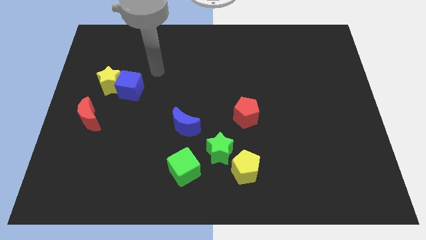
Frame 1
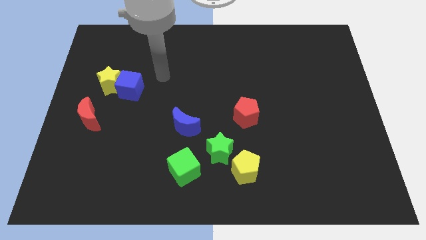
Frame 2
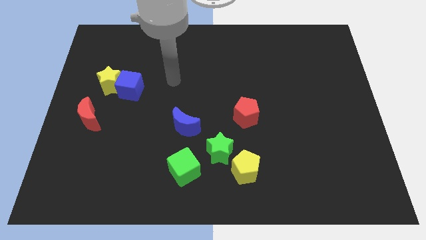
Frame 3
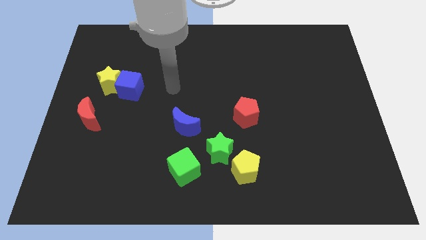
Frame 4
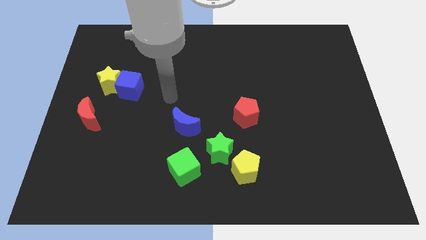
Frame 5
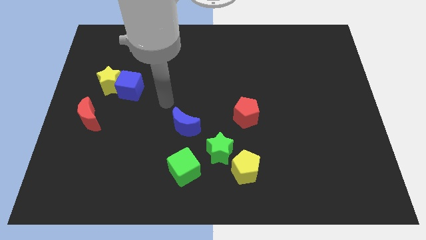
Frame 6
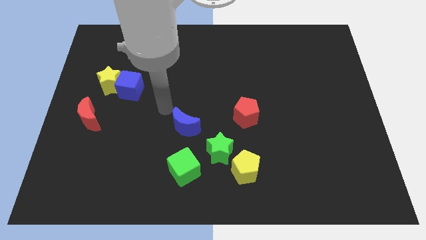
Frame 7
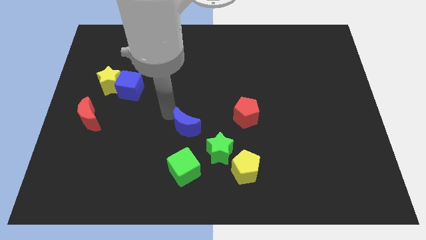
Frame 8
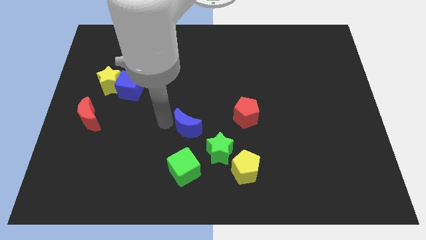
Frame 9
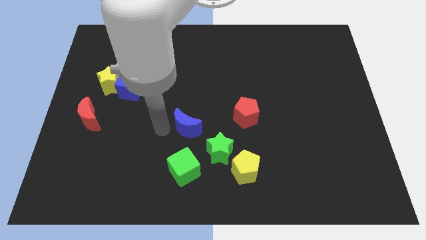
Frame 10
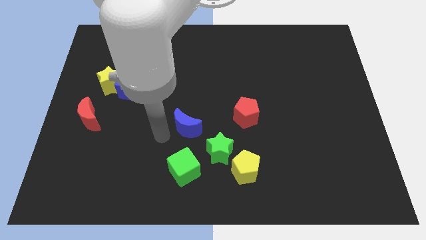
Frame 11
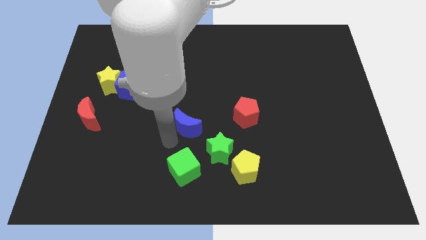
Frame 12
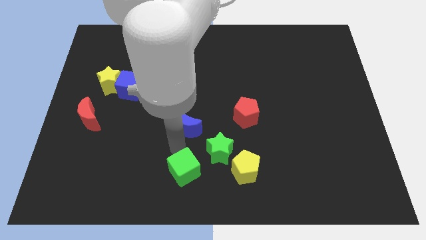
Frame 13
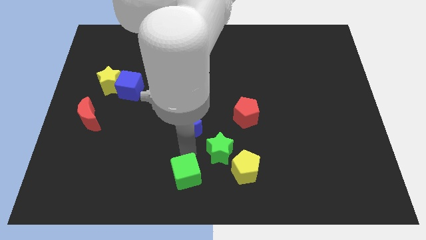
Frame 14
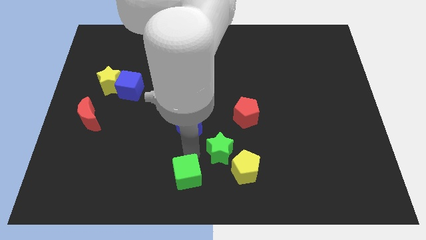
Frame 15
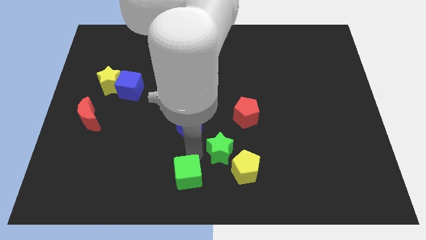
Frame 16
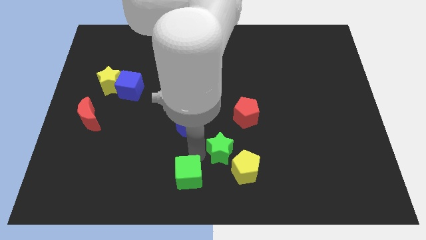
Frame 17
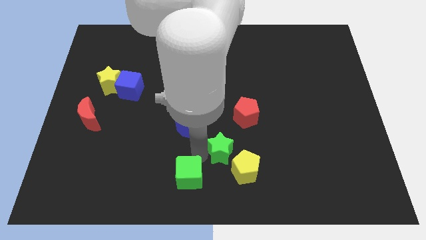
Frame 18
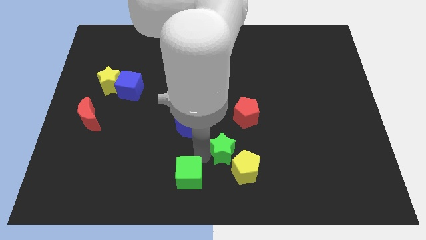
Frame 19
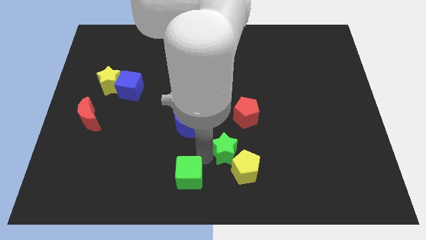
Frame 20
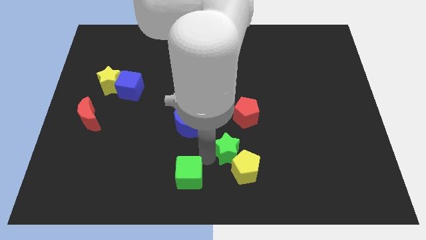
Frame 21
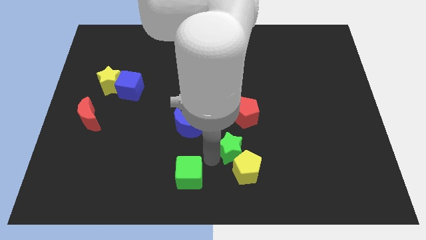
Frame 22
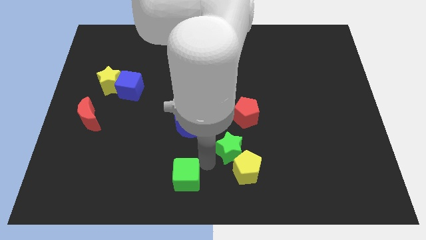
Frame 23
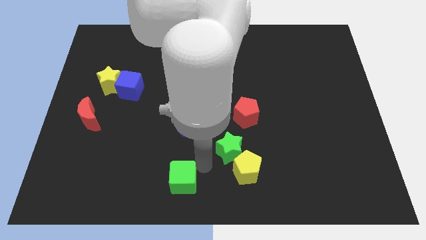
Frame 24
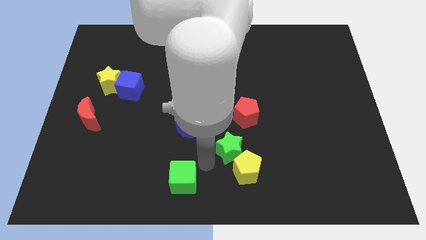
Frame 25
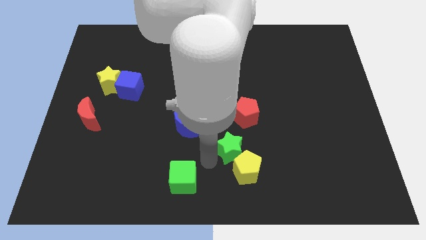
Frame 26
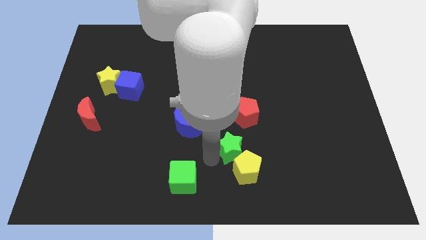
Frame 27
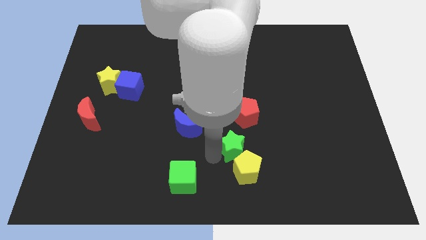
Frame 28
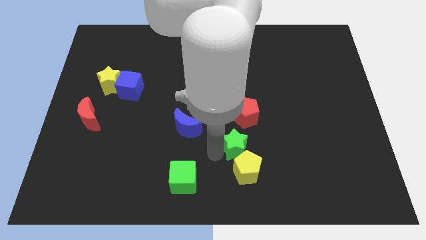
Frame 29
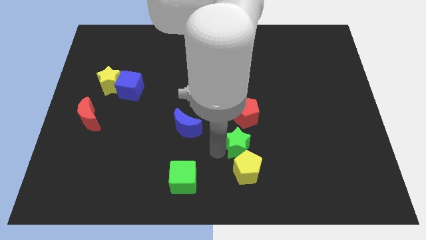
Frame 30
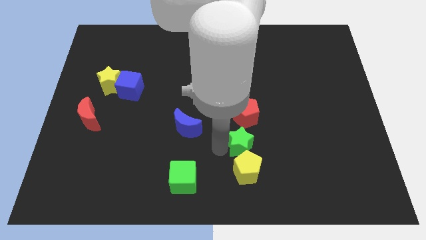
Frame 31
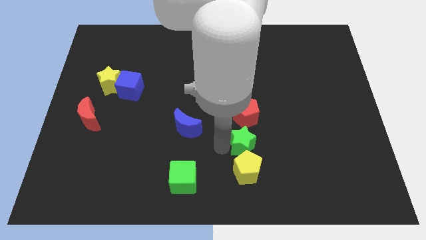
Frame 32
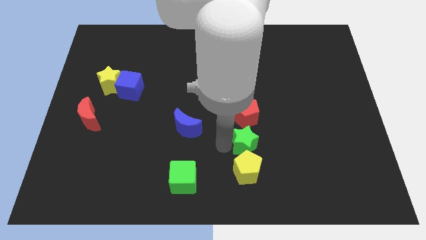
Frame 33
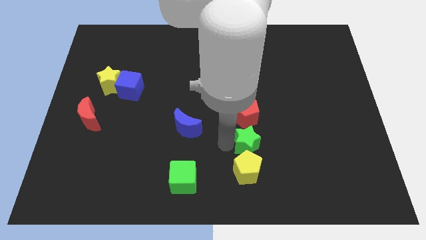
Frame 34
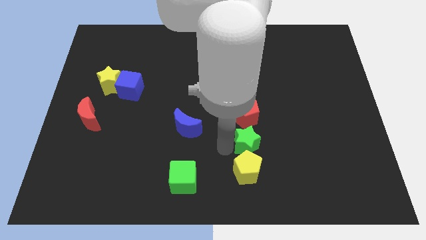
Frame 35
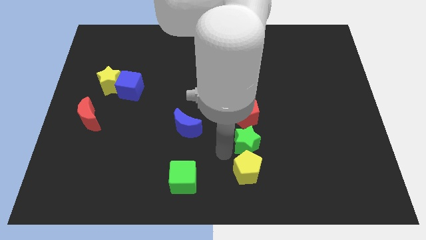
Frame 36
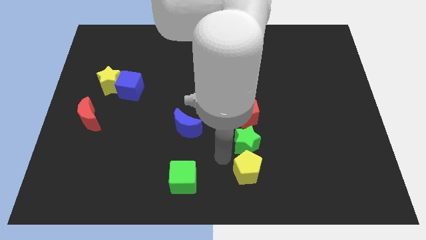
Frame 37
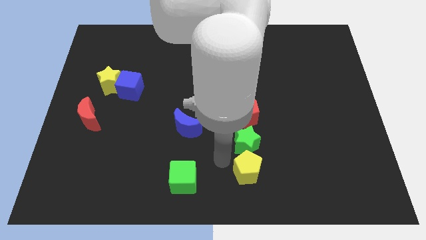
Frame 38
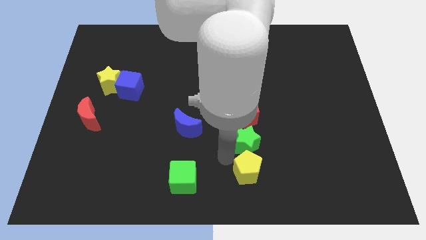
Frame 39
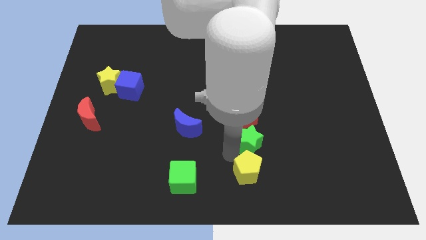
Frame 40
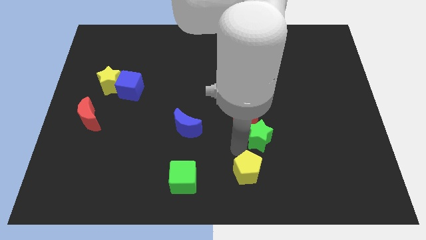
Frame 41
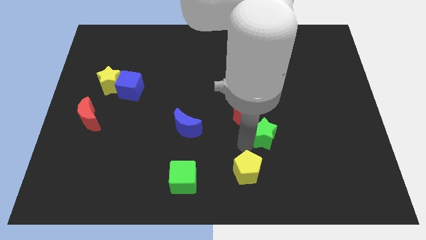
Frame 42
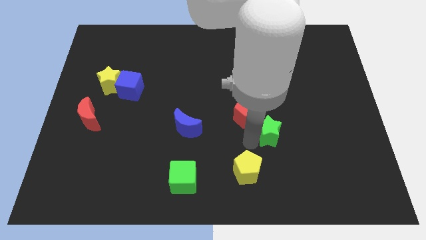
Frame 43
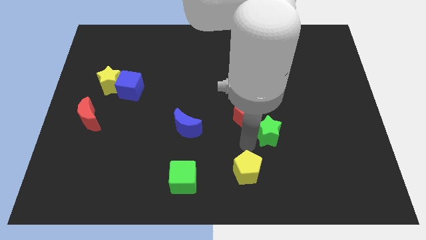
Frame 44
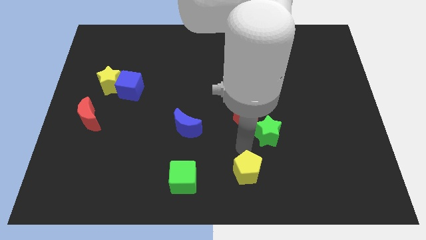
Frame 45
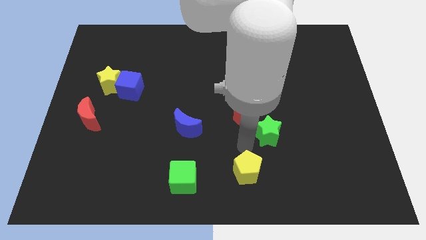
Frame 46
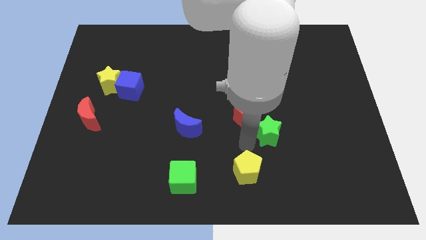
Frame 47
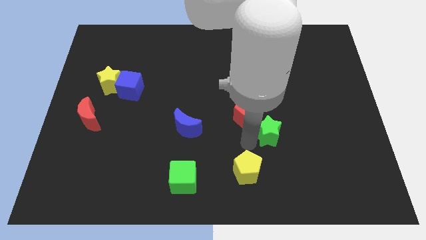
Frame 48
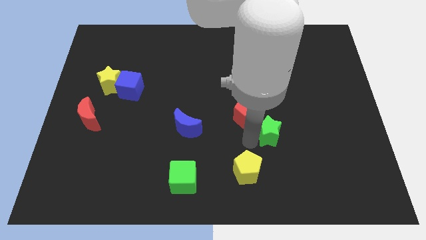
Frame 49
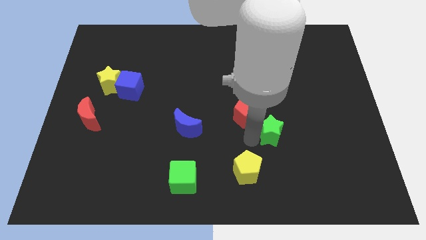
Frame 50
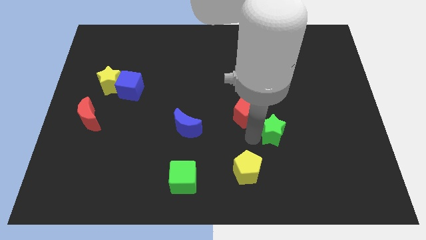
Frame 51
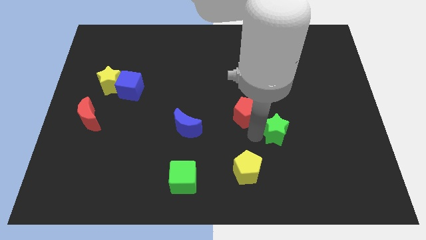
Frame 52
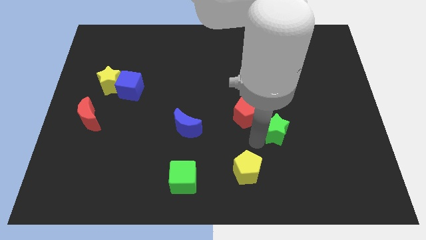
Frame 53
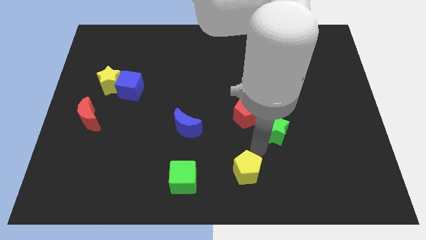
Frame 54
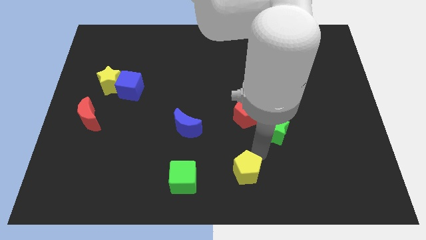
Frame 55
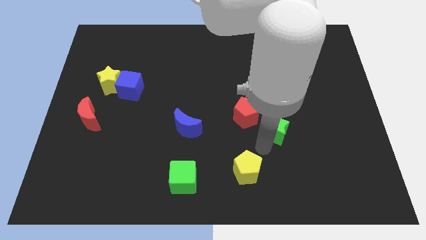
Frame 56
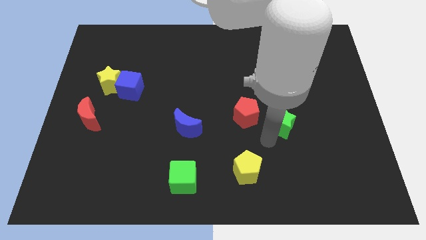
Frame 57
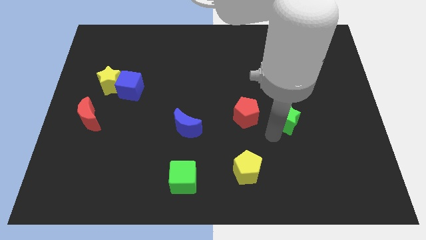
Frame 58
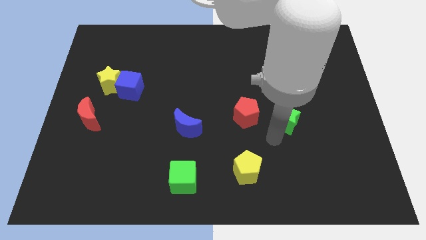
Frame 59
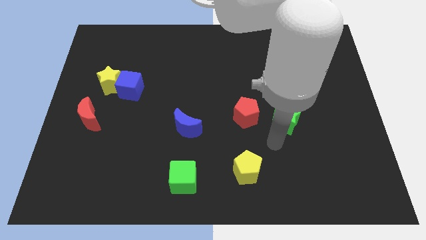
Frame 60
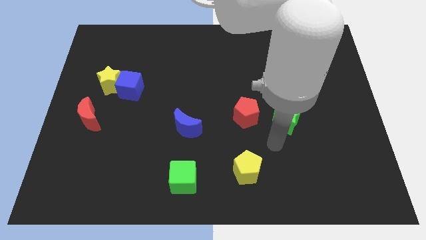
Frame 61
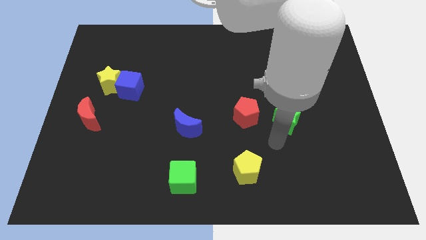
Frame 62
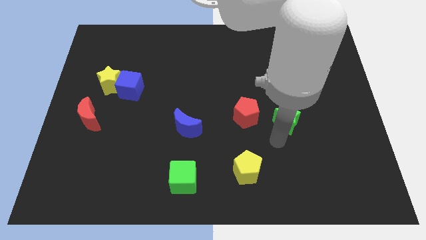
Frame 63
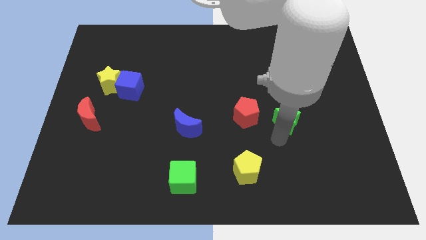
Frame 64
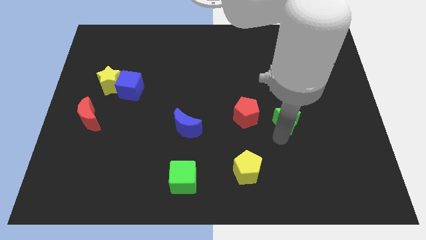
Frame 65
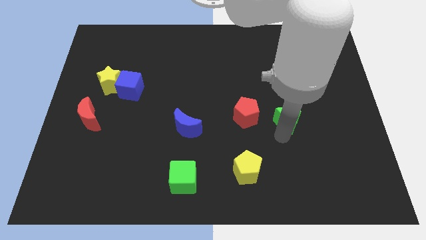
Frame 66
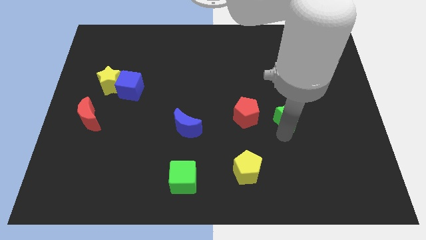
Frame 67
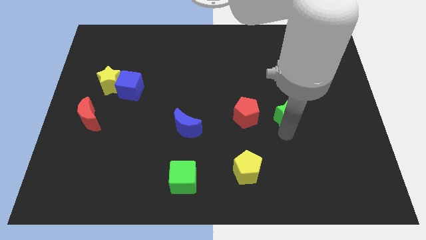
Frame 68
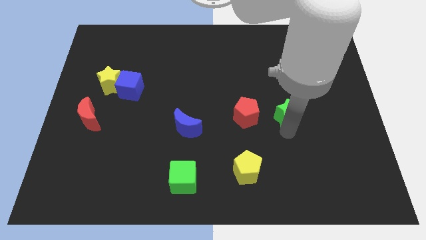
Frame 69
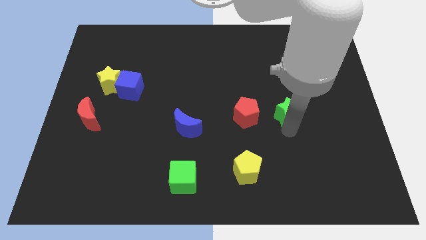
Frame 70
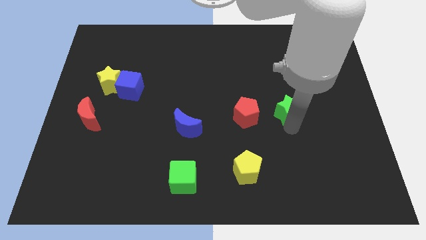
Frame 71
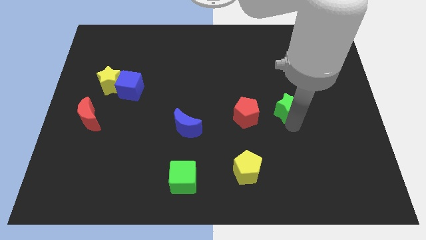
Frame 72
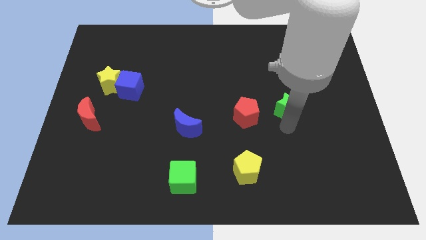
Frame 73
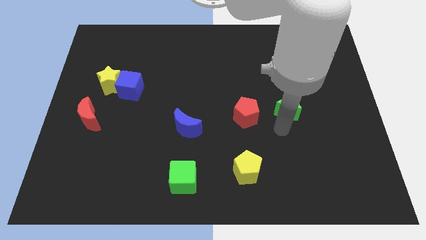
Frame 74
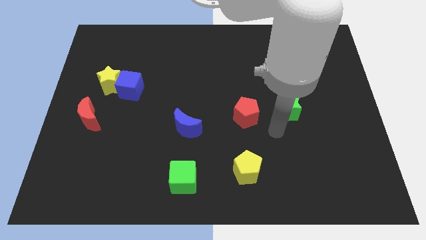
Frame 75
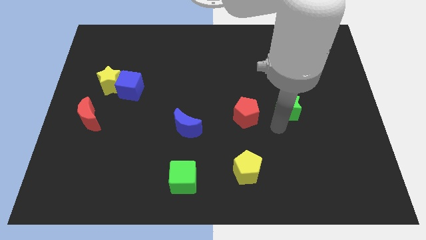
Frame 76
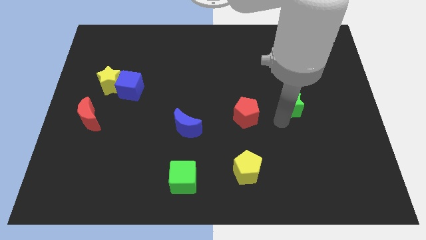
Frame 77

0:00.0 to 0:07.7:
slide the green star diagonally upwards and to the right

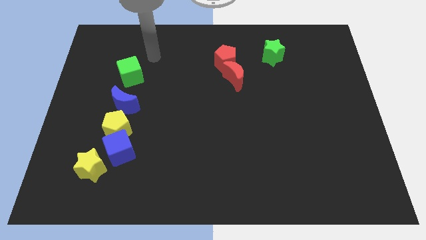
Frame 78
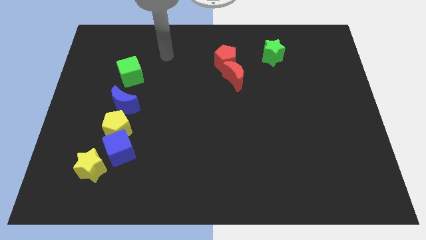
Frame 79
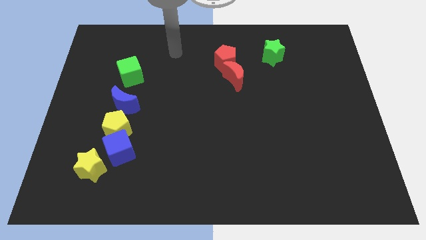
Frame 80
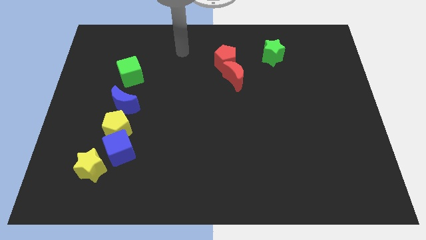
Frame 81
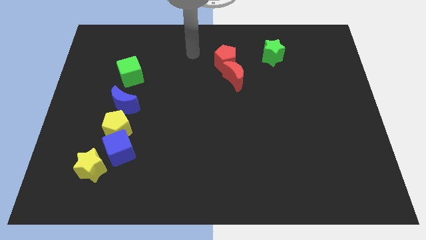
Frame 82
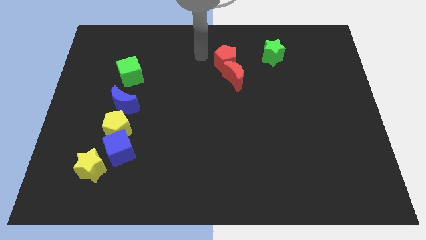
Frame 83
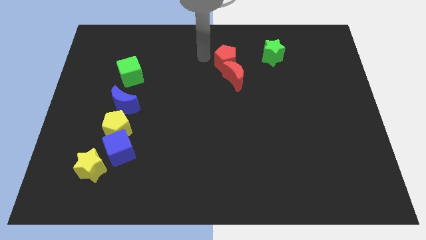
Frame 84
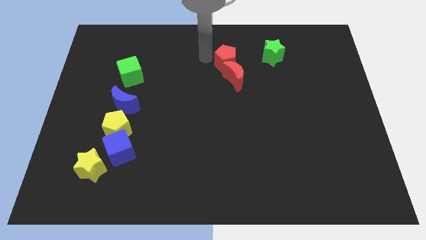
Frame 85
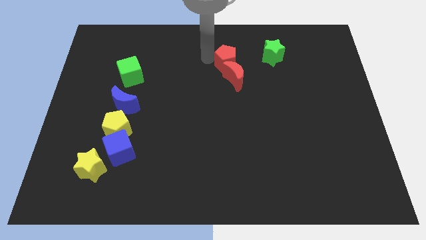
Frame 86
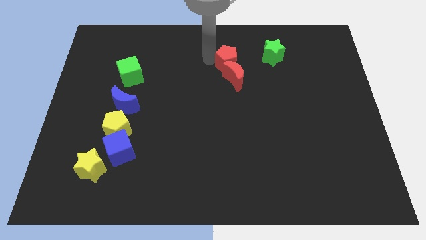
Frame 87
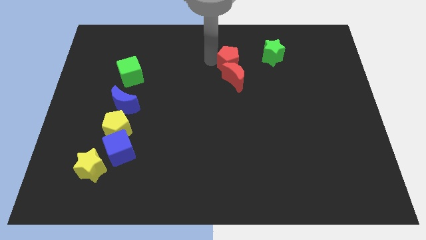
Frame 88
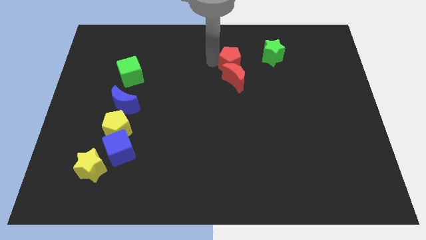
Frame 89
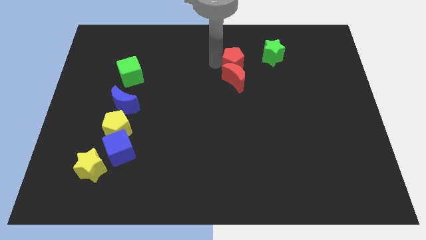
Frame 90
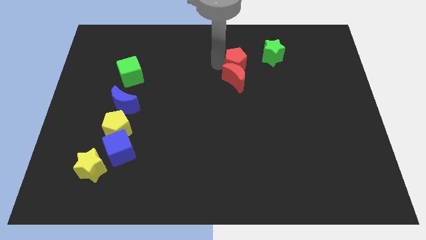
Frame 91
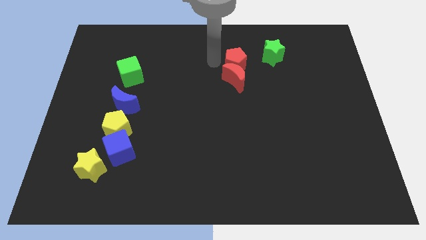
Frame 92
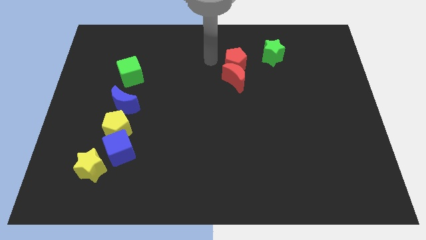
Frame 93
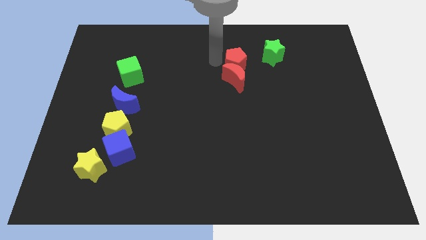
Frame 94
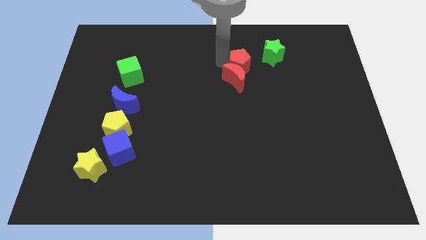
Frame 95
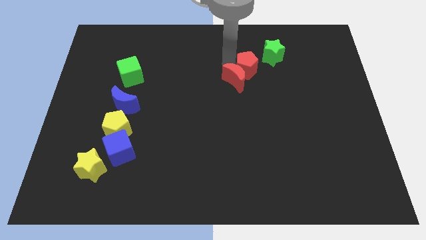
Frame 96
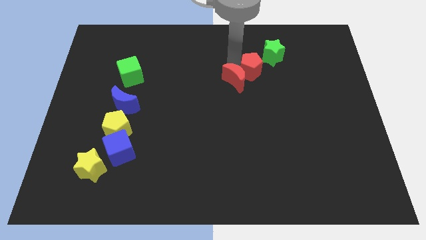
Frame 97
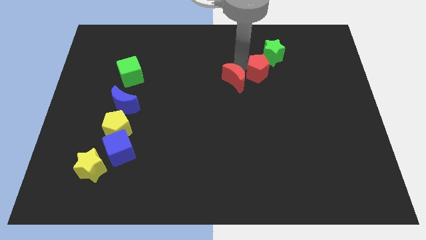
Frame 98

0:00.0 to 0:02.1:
slightly slide the red pentagon diagonally downwards and right
